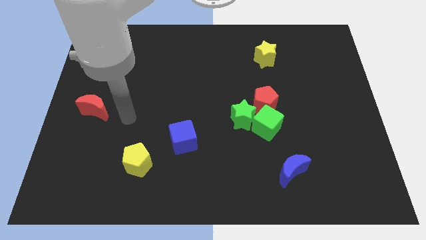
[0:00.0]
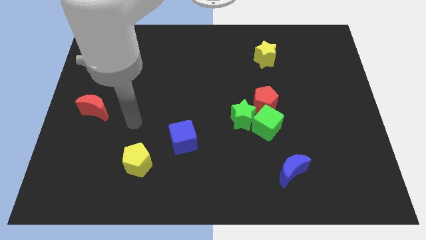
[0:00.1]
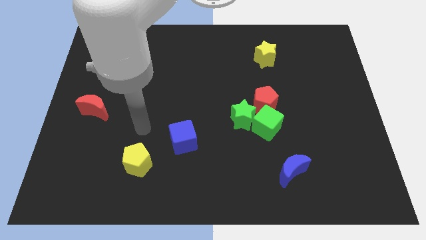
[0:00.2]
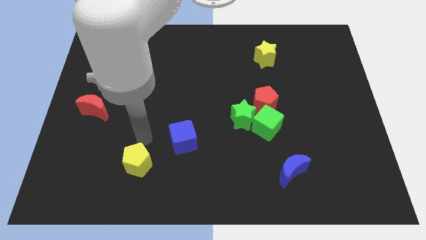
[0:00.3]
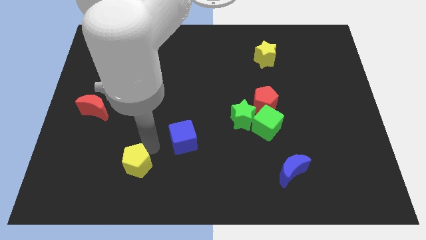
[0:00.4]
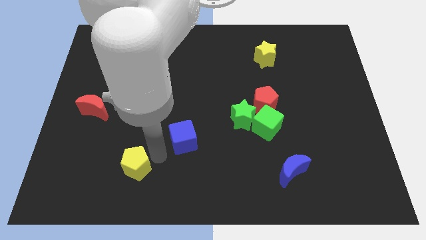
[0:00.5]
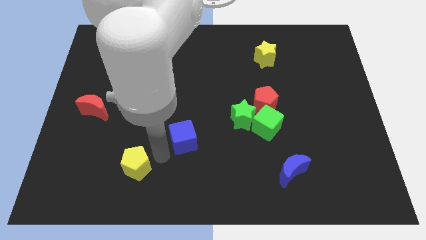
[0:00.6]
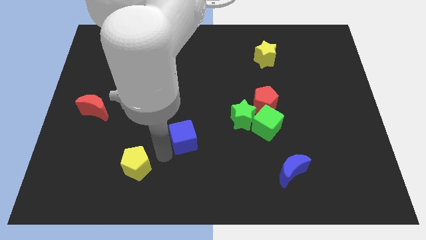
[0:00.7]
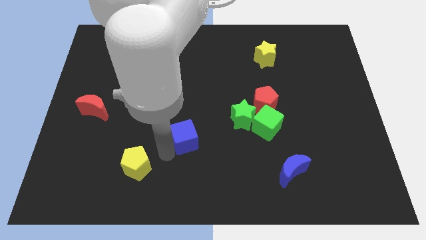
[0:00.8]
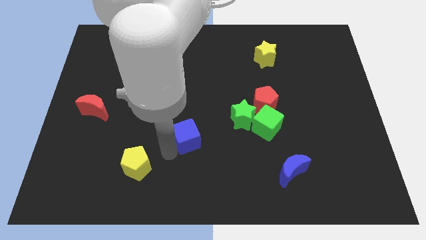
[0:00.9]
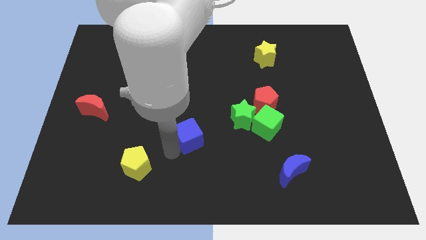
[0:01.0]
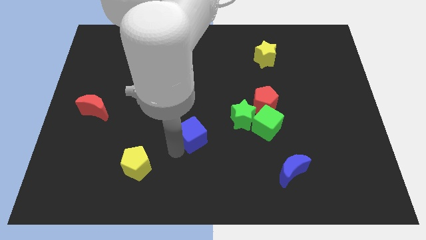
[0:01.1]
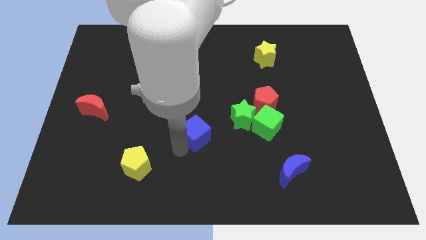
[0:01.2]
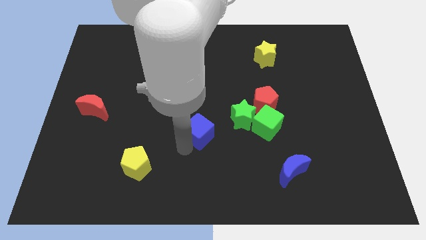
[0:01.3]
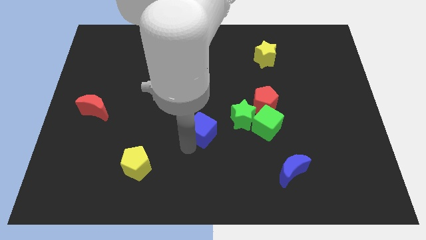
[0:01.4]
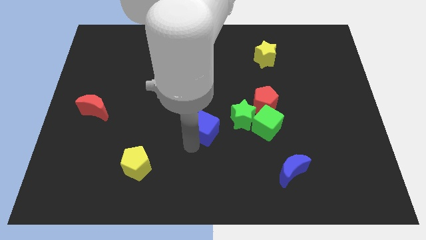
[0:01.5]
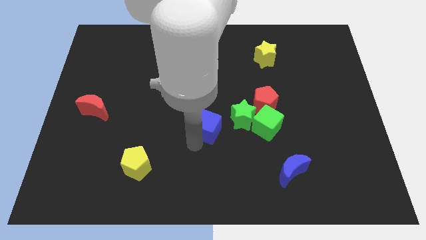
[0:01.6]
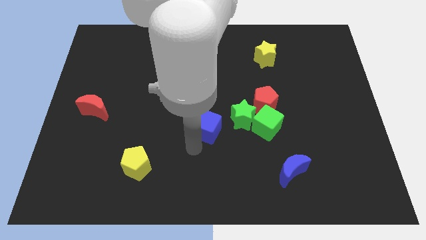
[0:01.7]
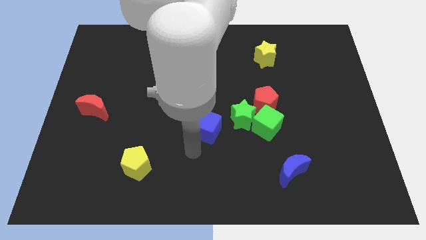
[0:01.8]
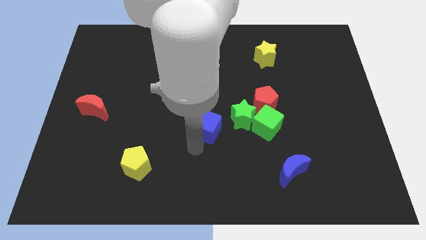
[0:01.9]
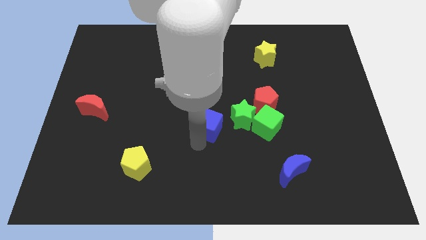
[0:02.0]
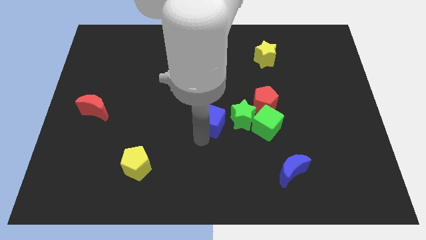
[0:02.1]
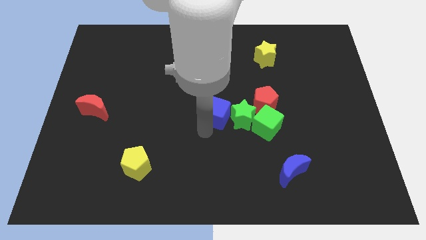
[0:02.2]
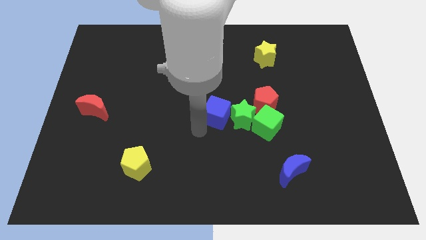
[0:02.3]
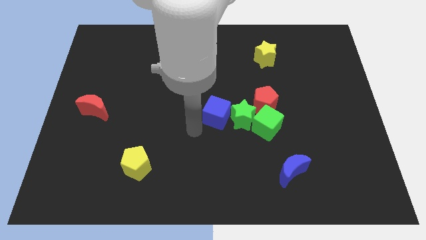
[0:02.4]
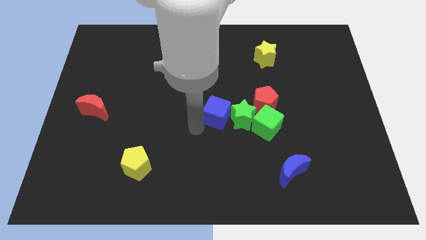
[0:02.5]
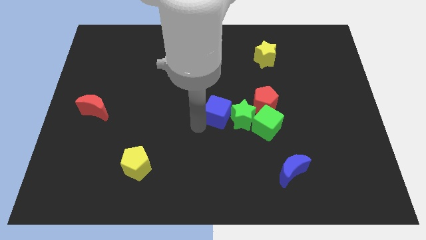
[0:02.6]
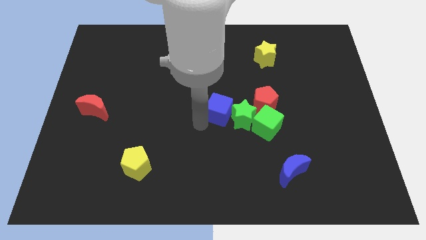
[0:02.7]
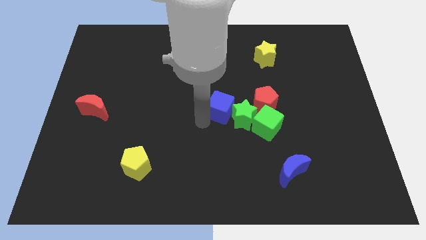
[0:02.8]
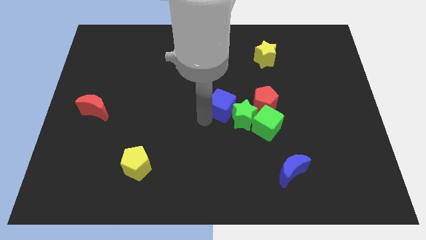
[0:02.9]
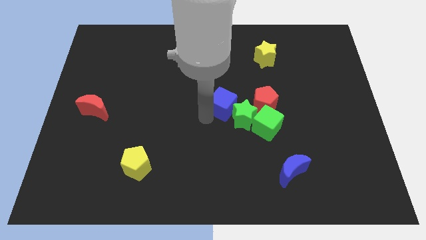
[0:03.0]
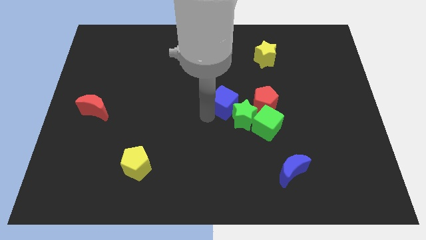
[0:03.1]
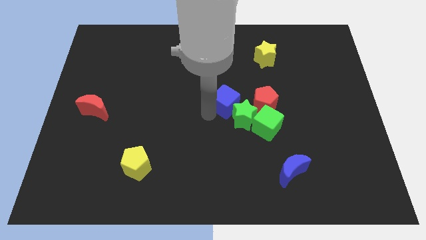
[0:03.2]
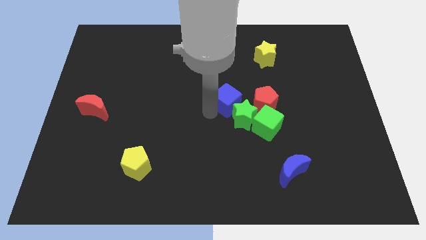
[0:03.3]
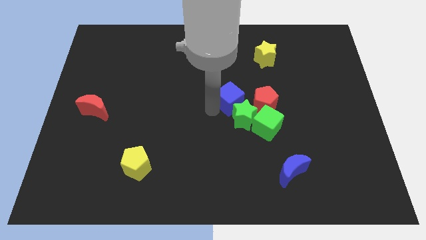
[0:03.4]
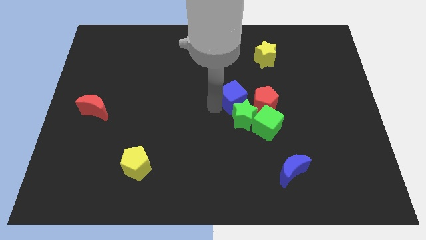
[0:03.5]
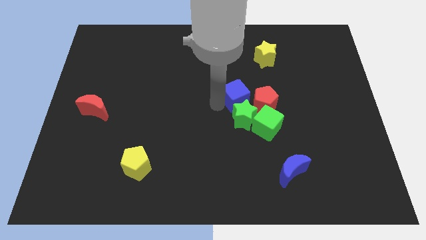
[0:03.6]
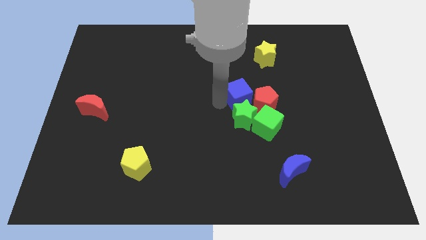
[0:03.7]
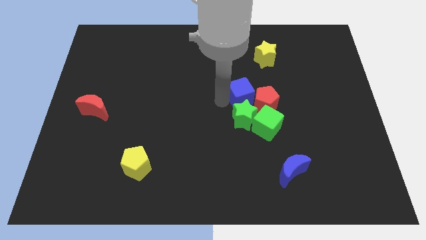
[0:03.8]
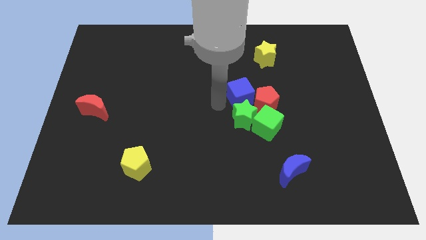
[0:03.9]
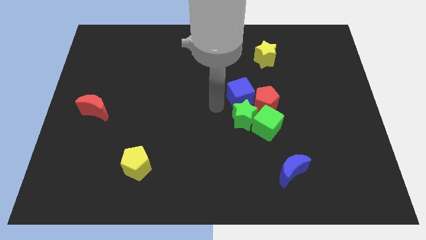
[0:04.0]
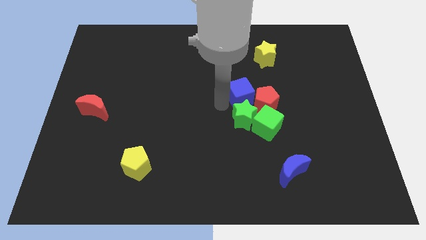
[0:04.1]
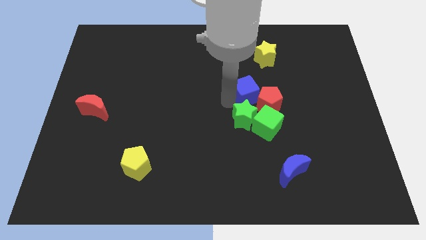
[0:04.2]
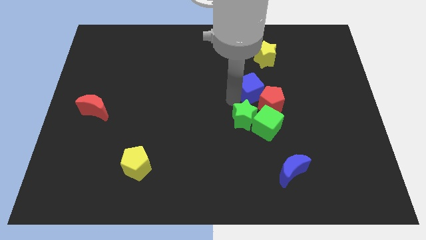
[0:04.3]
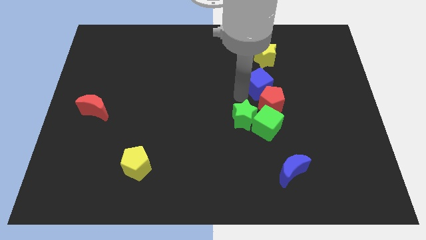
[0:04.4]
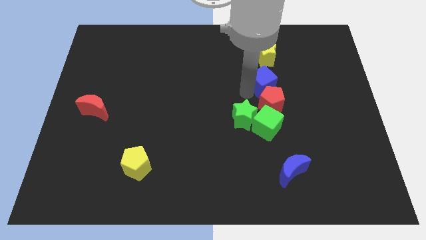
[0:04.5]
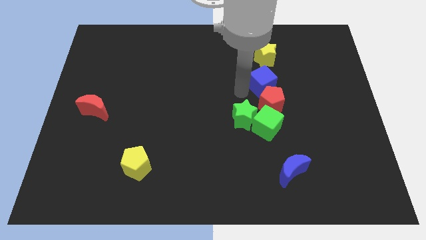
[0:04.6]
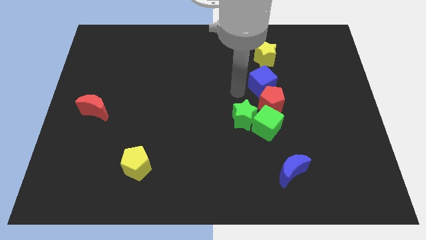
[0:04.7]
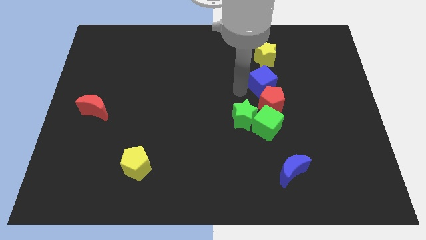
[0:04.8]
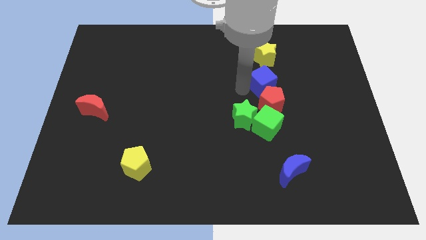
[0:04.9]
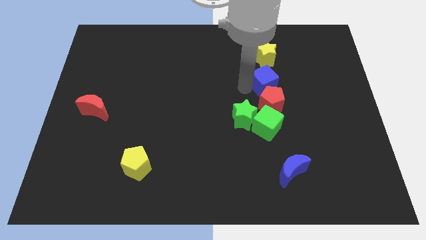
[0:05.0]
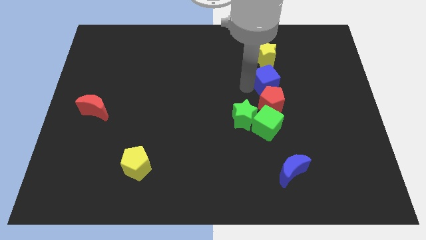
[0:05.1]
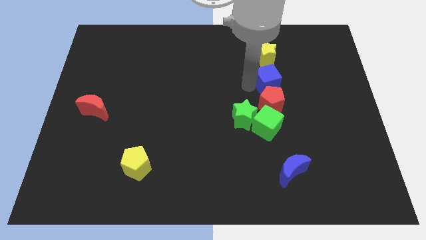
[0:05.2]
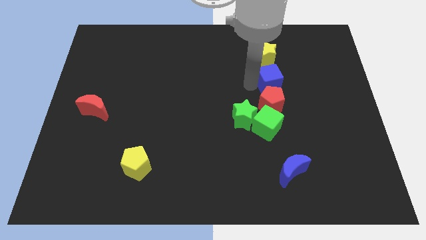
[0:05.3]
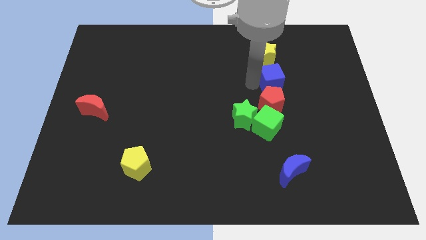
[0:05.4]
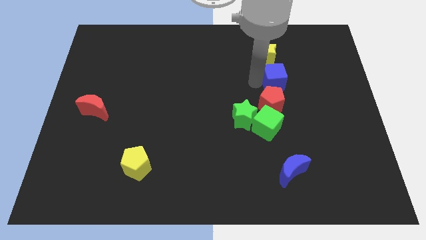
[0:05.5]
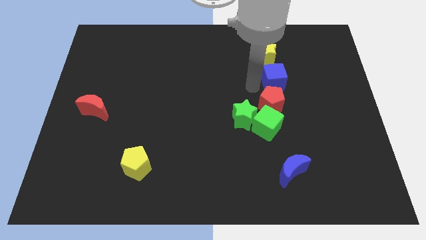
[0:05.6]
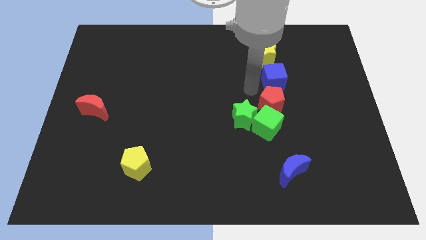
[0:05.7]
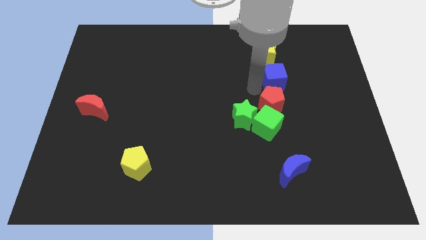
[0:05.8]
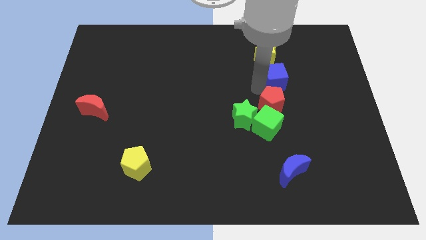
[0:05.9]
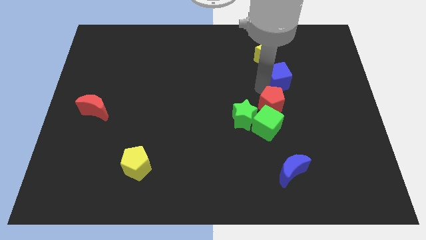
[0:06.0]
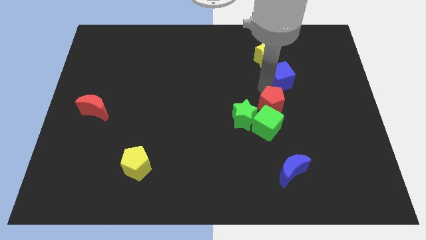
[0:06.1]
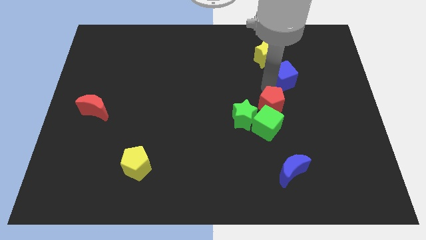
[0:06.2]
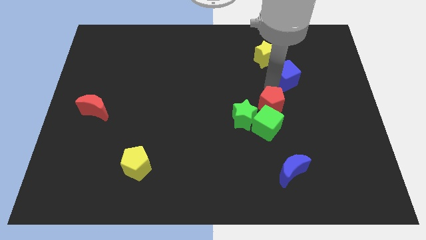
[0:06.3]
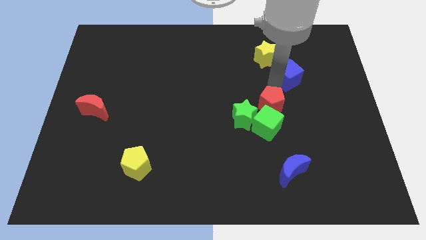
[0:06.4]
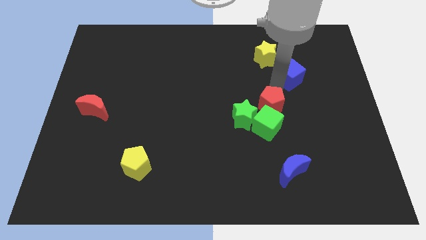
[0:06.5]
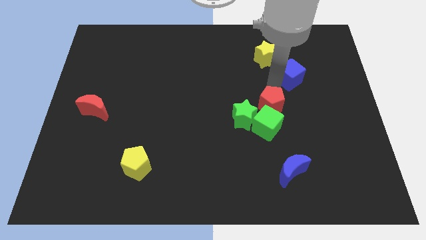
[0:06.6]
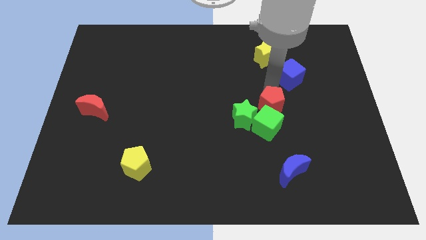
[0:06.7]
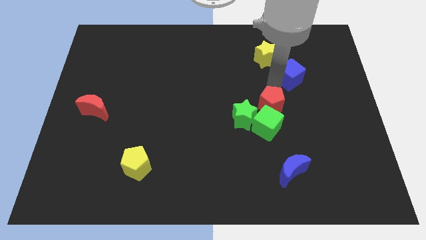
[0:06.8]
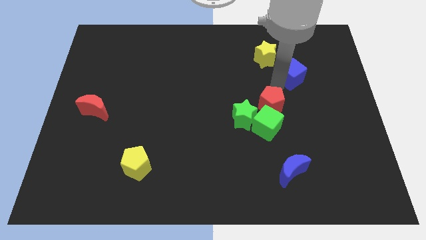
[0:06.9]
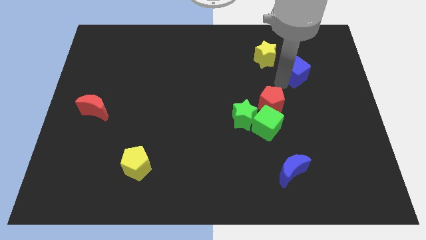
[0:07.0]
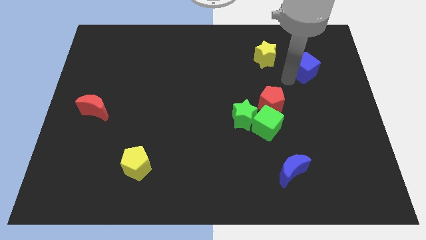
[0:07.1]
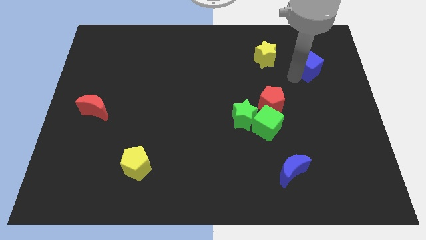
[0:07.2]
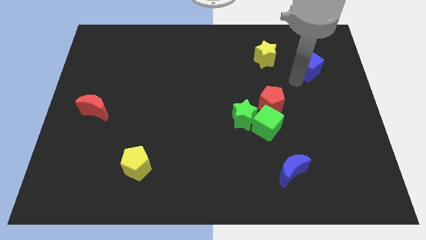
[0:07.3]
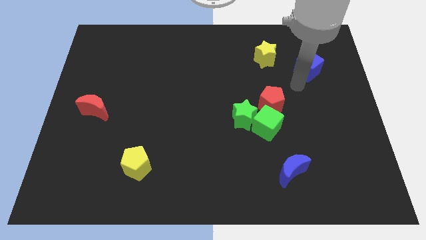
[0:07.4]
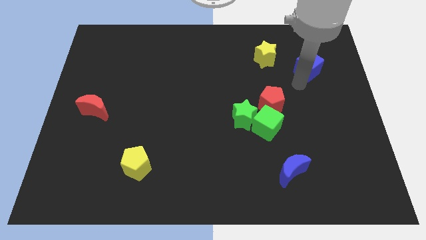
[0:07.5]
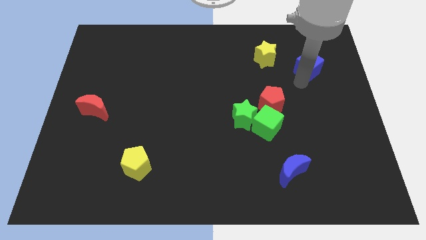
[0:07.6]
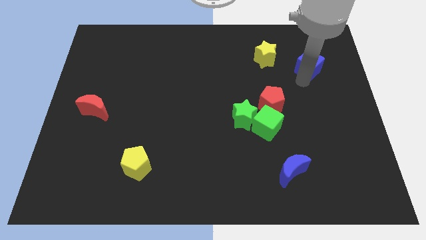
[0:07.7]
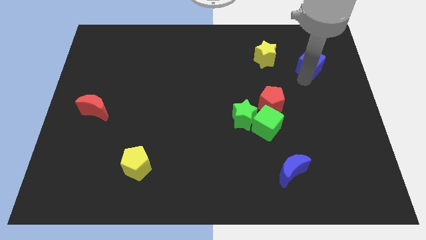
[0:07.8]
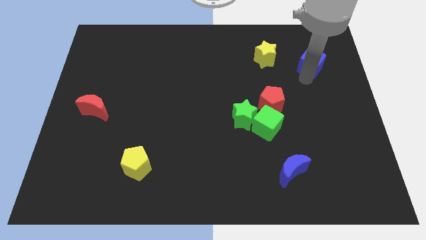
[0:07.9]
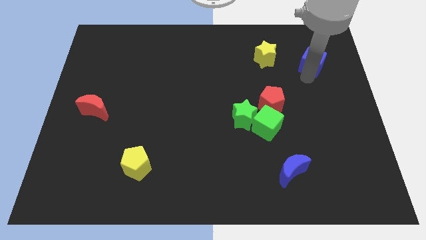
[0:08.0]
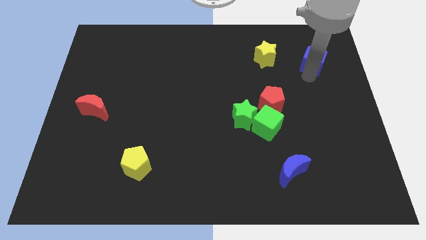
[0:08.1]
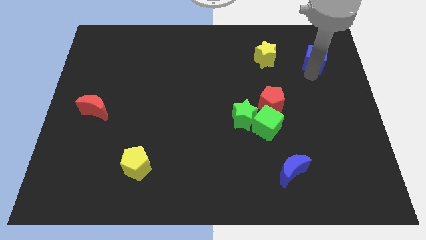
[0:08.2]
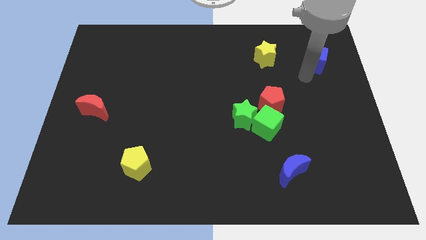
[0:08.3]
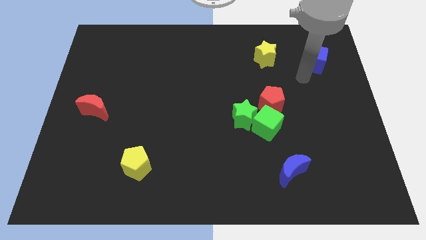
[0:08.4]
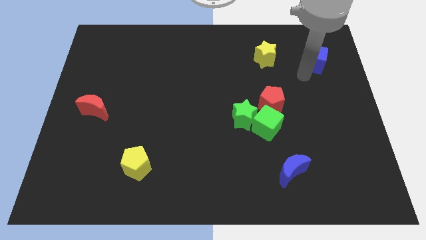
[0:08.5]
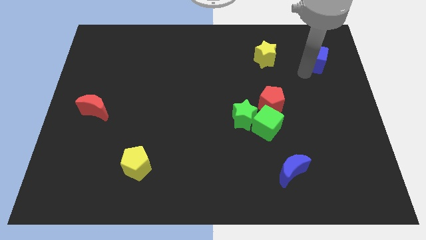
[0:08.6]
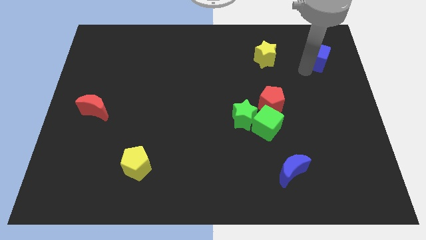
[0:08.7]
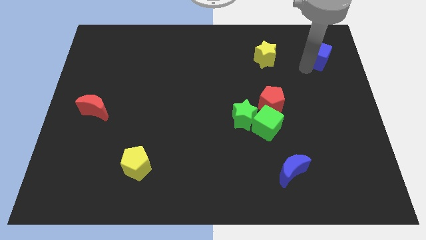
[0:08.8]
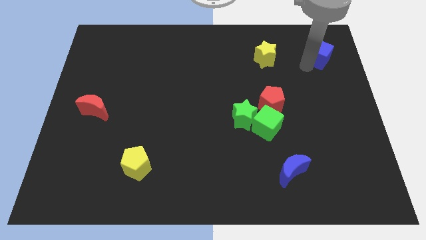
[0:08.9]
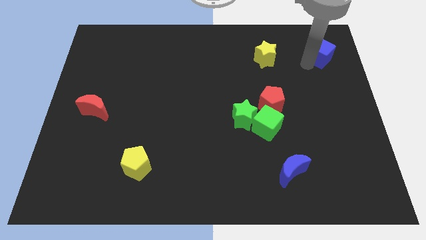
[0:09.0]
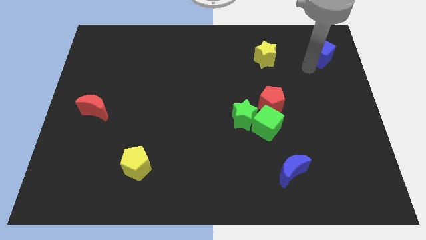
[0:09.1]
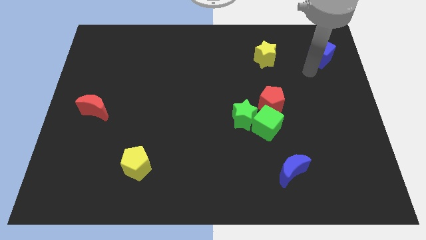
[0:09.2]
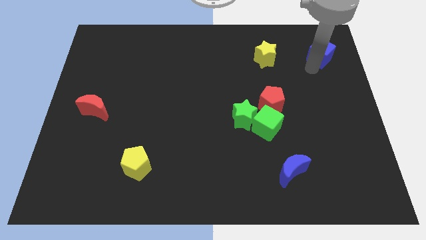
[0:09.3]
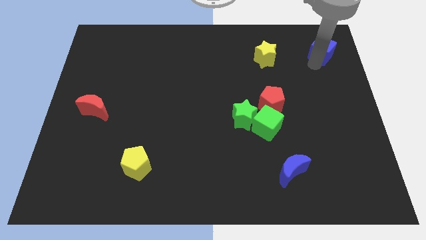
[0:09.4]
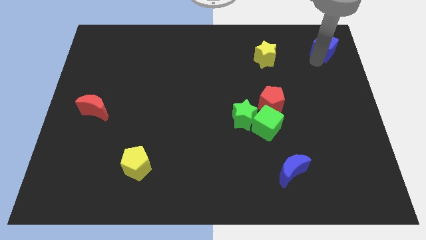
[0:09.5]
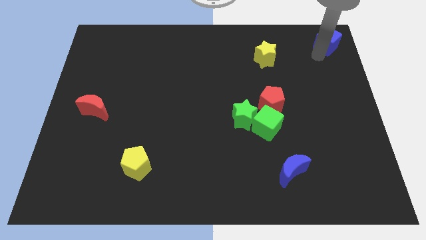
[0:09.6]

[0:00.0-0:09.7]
push the blue cube to the top right of the board
